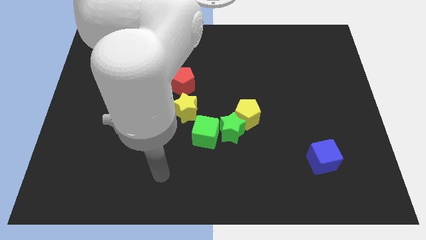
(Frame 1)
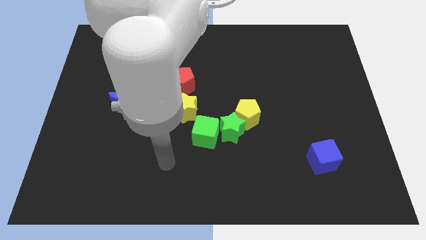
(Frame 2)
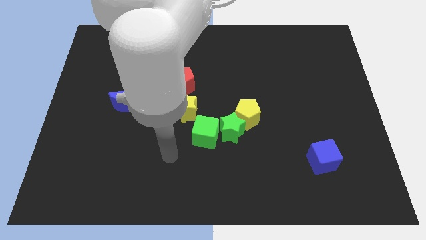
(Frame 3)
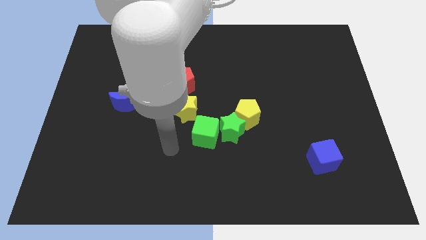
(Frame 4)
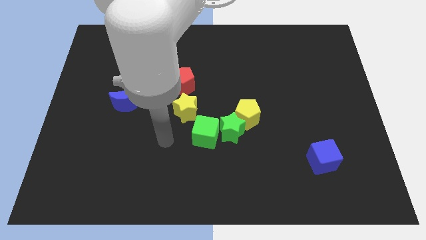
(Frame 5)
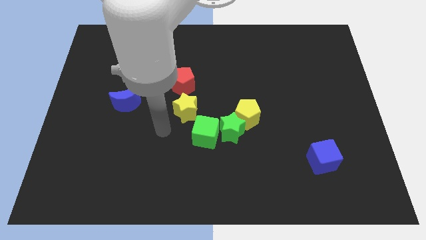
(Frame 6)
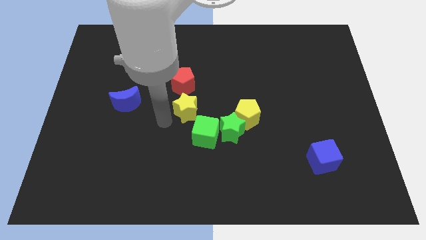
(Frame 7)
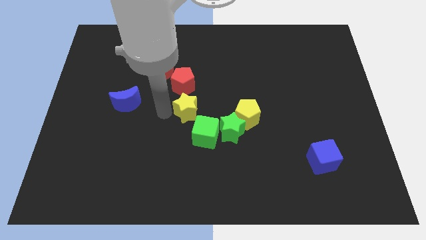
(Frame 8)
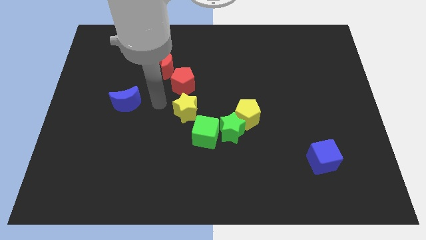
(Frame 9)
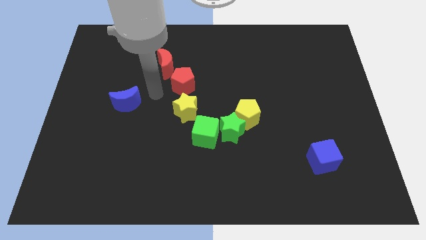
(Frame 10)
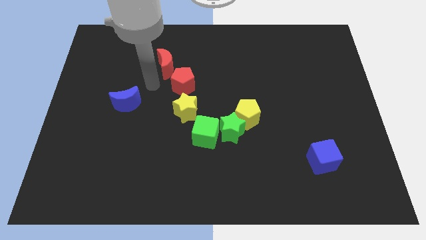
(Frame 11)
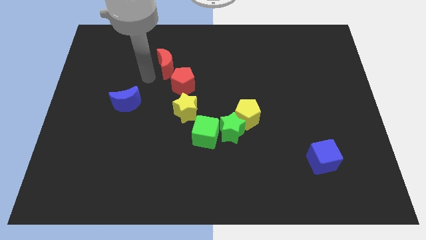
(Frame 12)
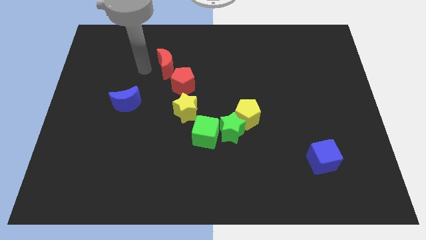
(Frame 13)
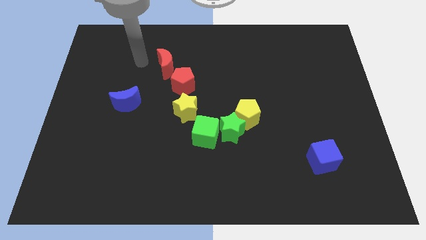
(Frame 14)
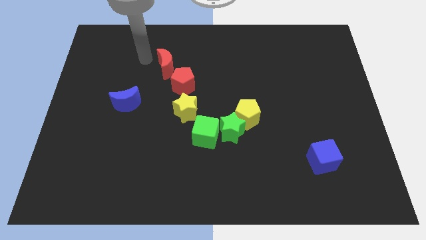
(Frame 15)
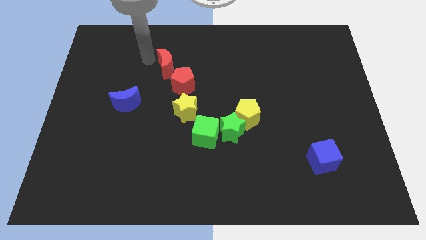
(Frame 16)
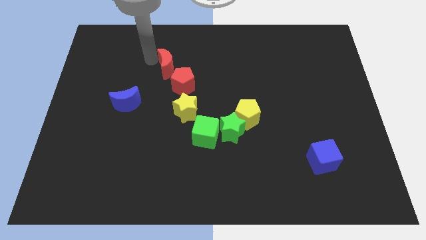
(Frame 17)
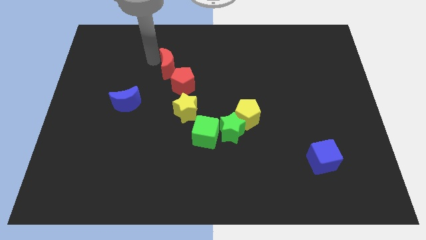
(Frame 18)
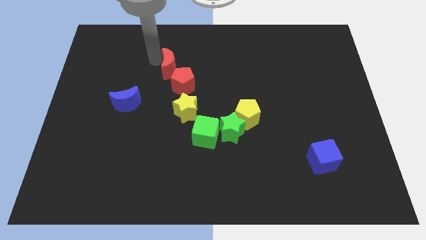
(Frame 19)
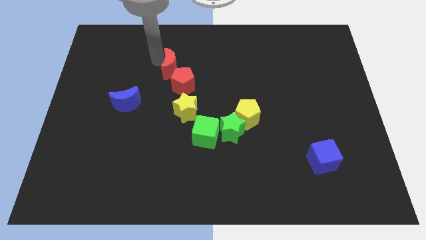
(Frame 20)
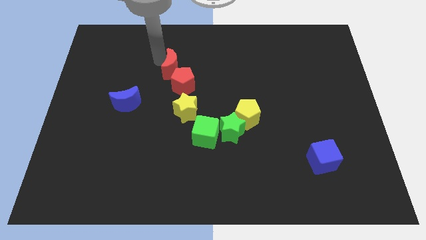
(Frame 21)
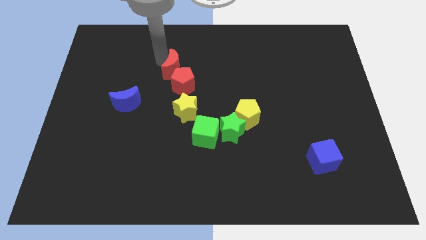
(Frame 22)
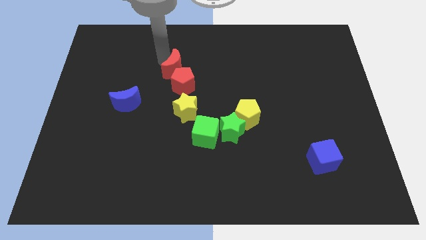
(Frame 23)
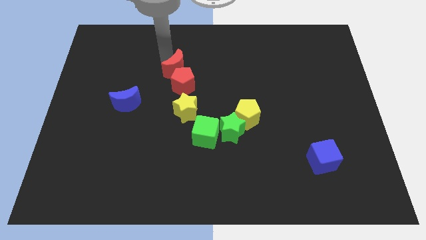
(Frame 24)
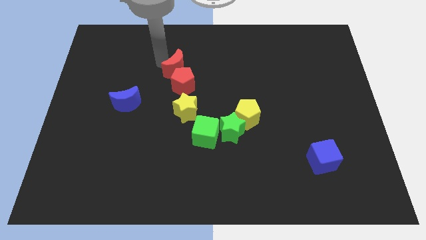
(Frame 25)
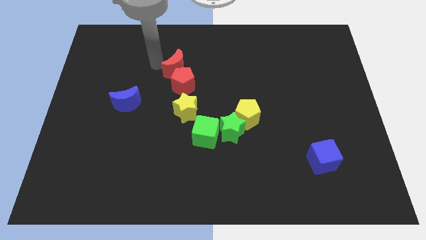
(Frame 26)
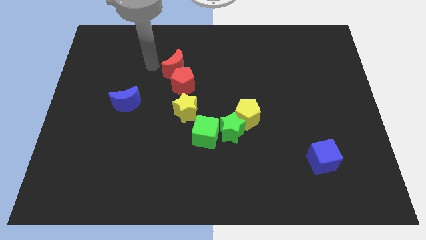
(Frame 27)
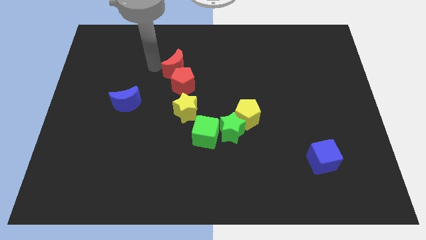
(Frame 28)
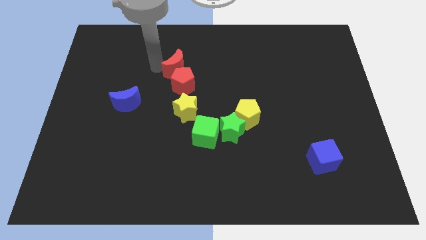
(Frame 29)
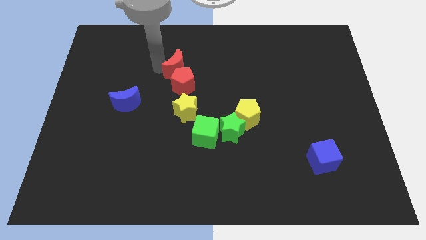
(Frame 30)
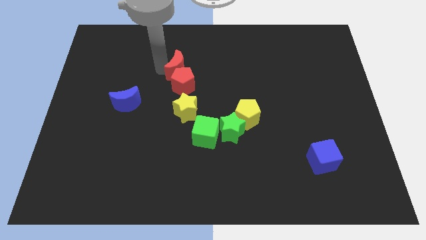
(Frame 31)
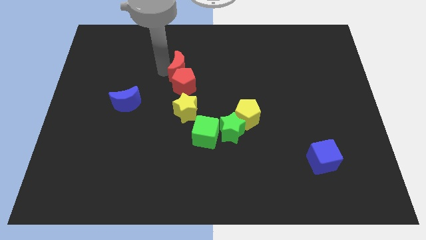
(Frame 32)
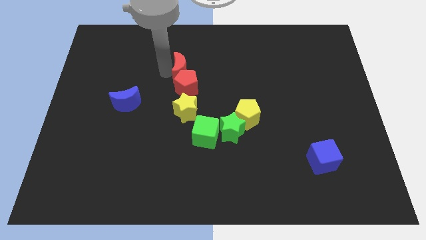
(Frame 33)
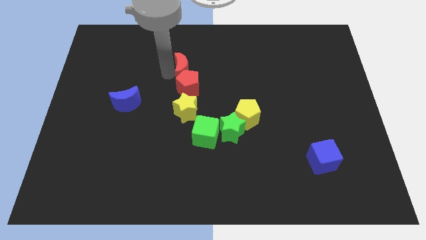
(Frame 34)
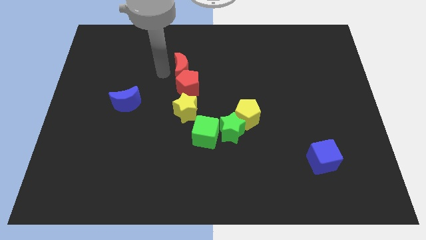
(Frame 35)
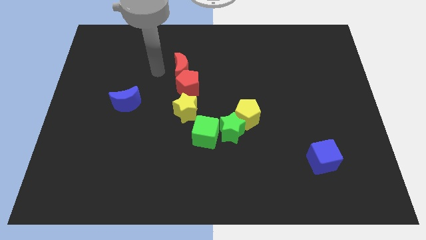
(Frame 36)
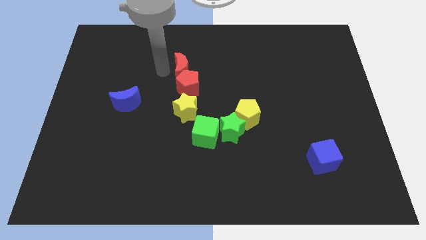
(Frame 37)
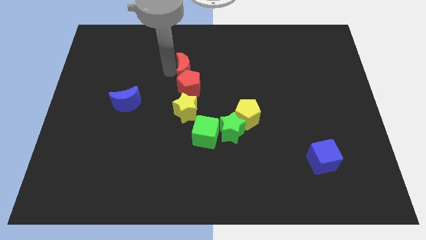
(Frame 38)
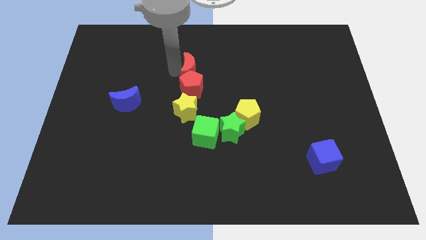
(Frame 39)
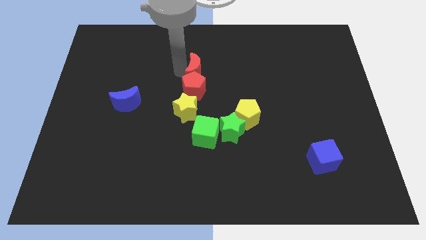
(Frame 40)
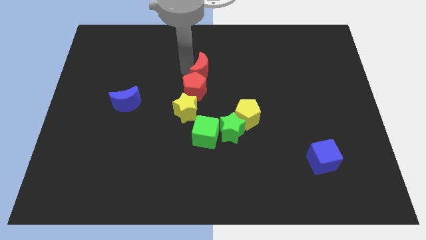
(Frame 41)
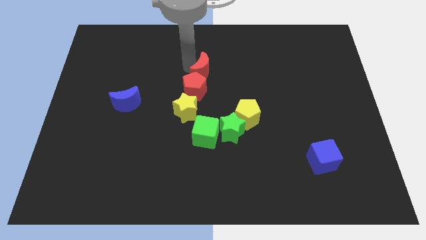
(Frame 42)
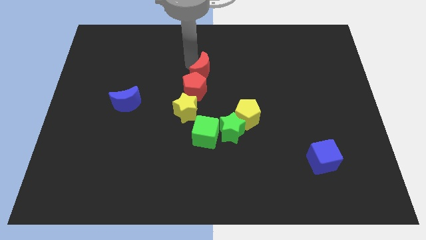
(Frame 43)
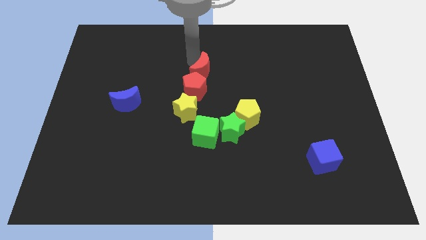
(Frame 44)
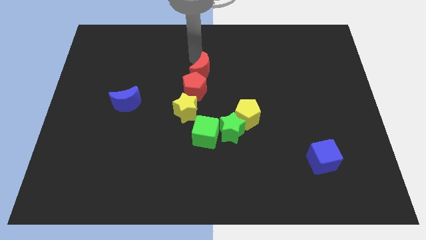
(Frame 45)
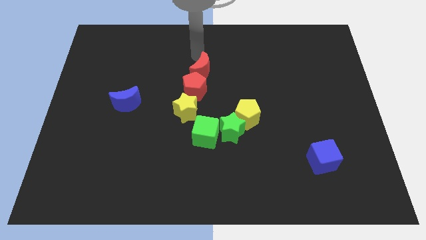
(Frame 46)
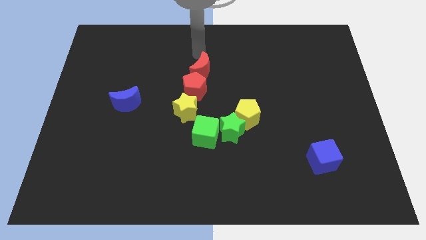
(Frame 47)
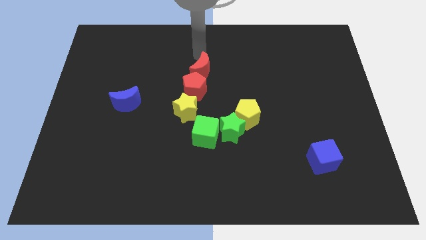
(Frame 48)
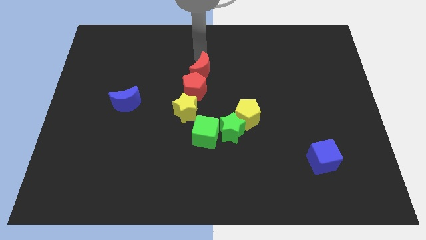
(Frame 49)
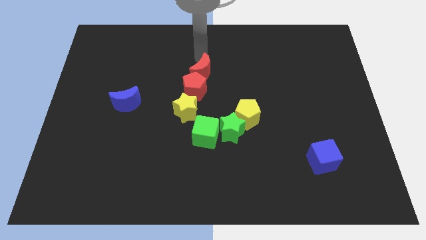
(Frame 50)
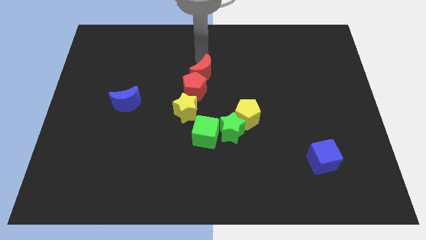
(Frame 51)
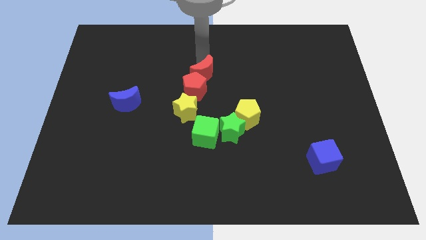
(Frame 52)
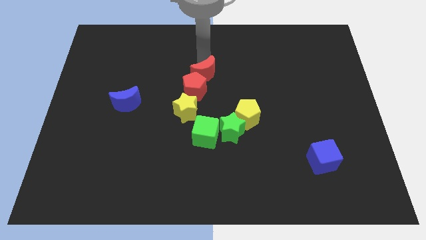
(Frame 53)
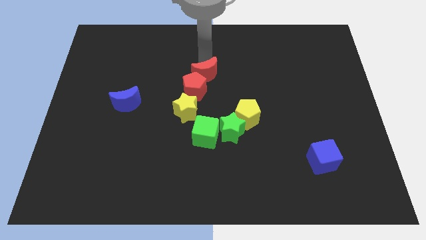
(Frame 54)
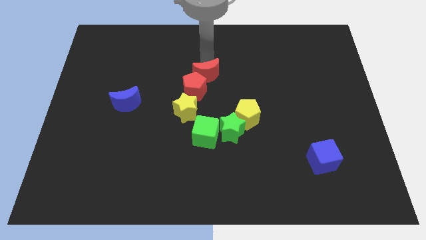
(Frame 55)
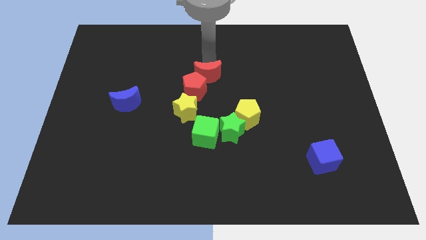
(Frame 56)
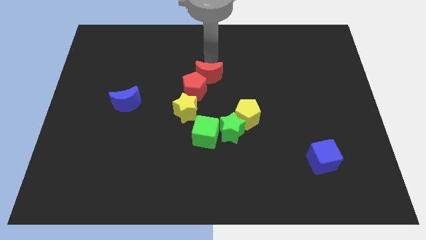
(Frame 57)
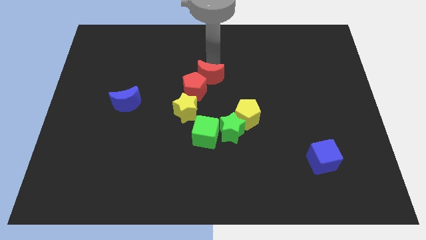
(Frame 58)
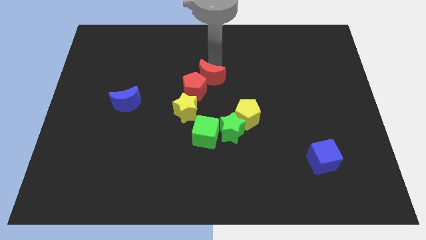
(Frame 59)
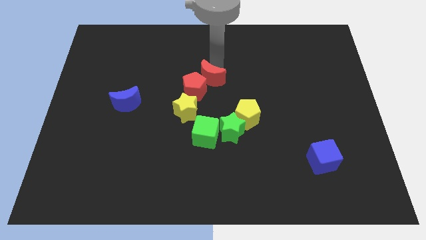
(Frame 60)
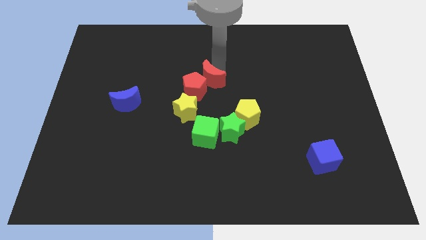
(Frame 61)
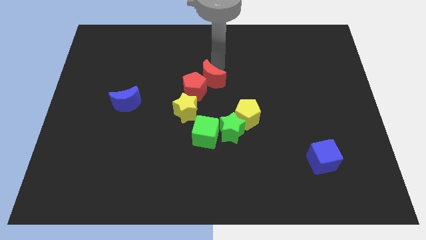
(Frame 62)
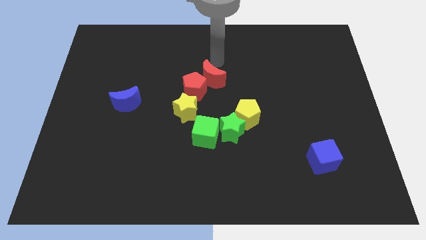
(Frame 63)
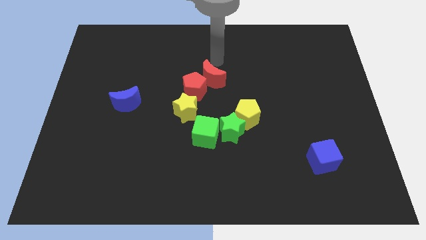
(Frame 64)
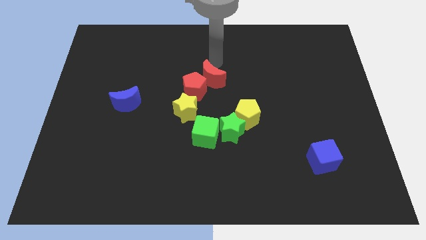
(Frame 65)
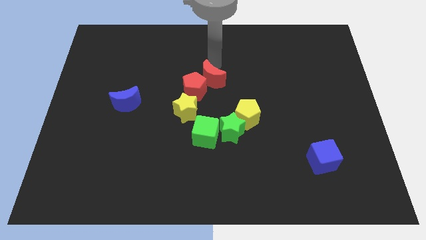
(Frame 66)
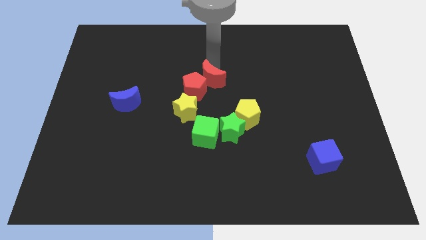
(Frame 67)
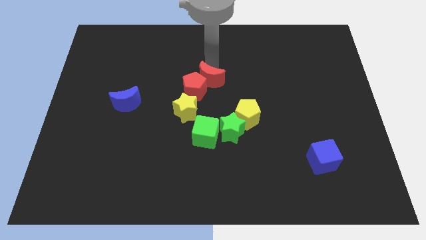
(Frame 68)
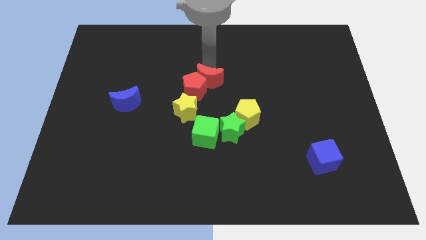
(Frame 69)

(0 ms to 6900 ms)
put the red moon above the green cube
